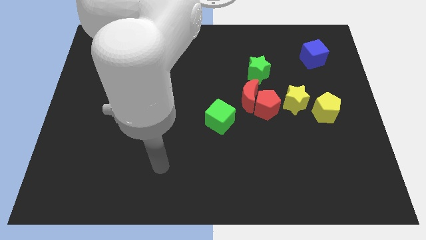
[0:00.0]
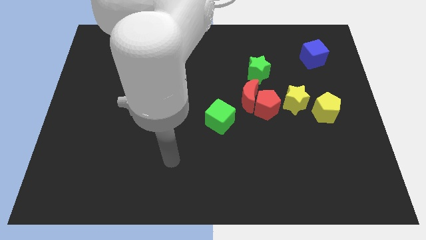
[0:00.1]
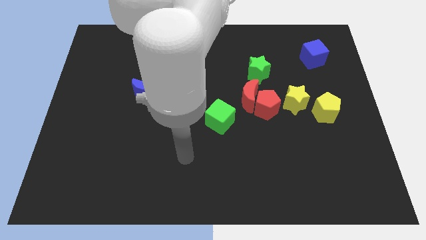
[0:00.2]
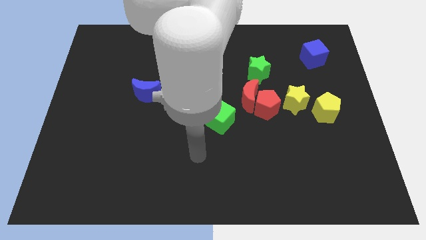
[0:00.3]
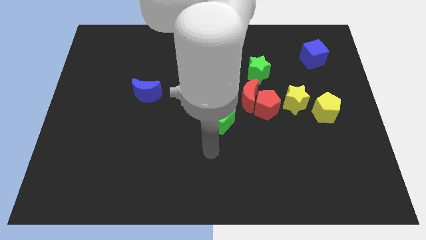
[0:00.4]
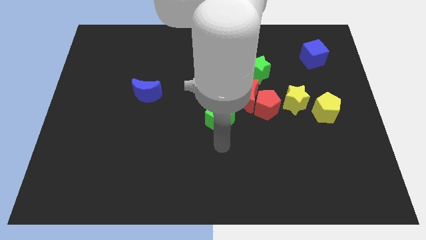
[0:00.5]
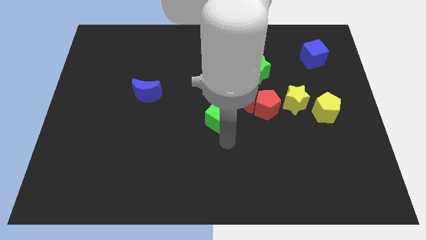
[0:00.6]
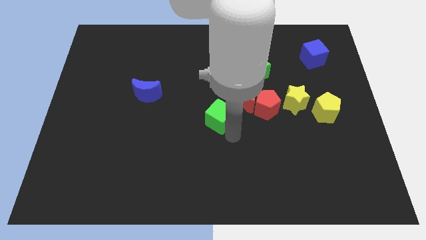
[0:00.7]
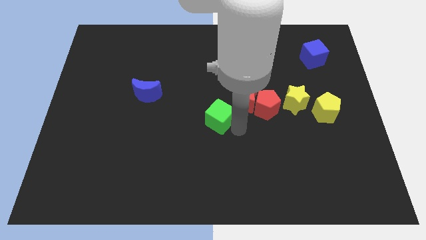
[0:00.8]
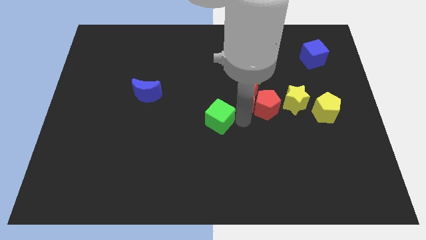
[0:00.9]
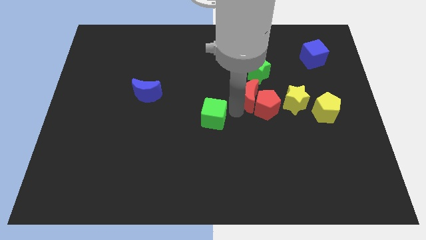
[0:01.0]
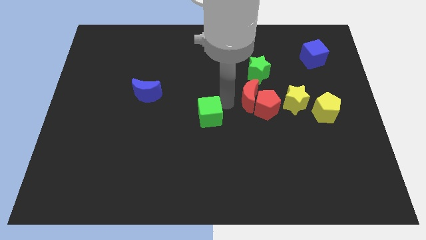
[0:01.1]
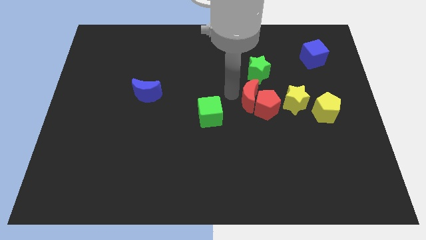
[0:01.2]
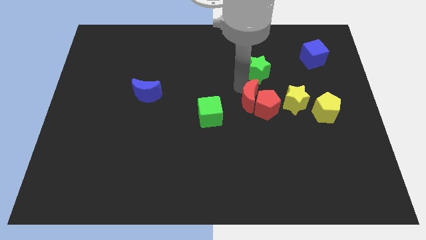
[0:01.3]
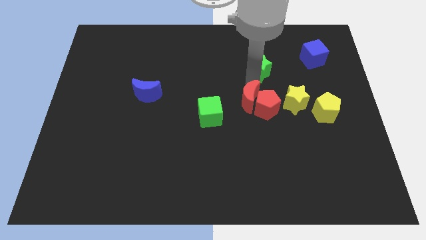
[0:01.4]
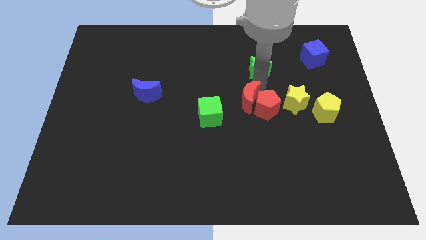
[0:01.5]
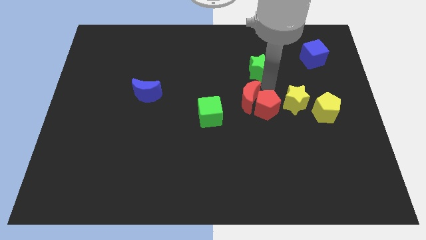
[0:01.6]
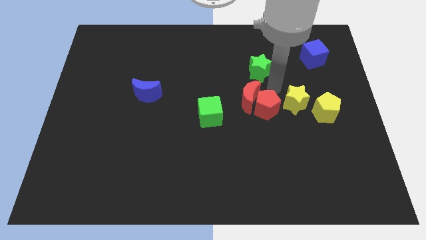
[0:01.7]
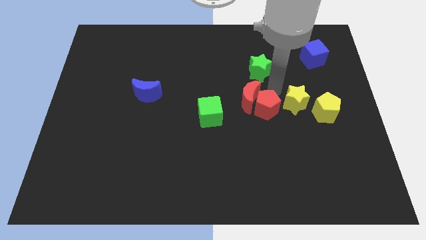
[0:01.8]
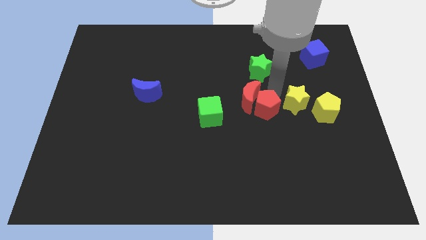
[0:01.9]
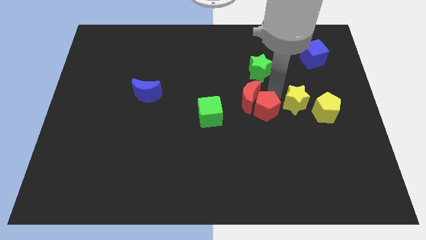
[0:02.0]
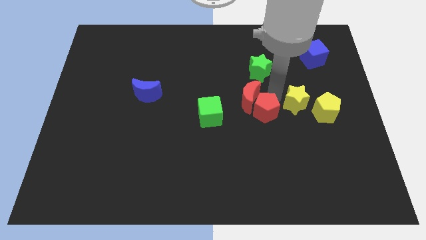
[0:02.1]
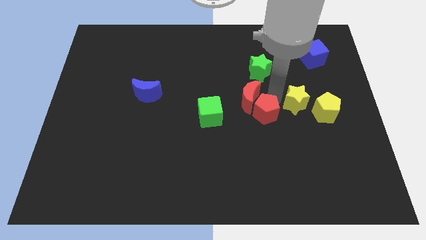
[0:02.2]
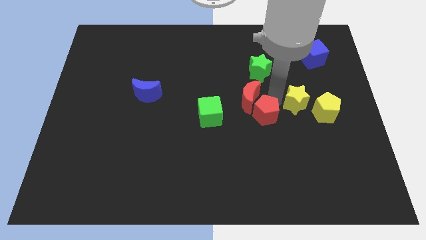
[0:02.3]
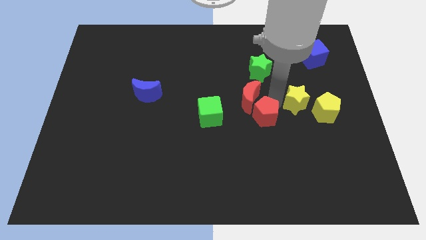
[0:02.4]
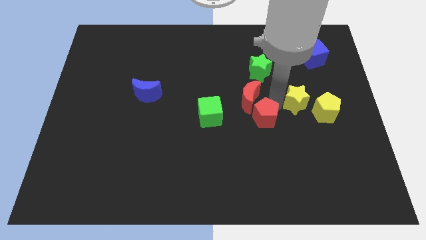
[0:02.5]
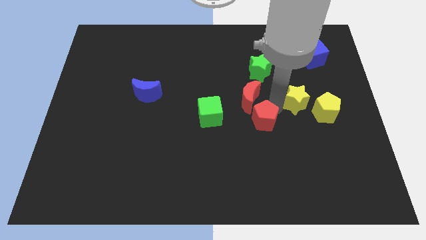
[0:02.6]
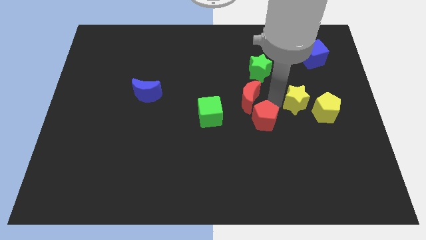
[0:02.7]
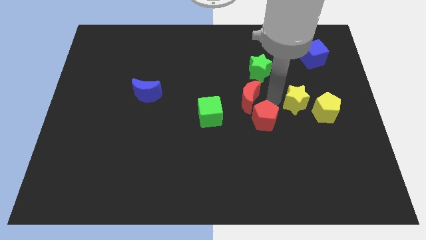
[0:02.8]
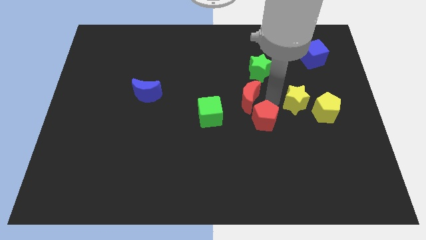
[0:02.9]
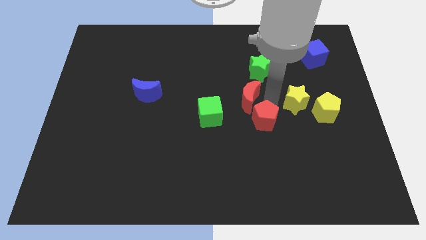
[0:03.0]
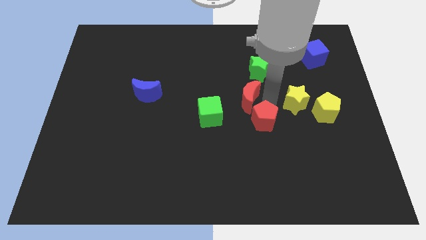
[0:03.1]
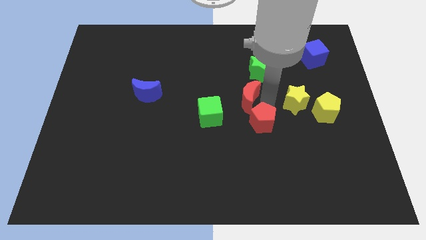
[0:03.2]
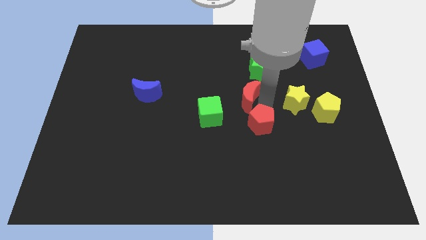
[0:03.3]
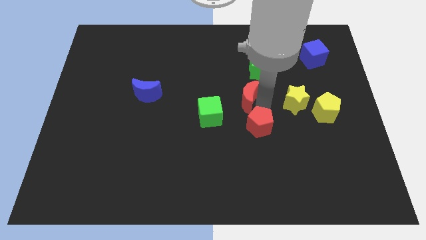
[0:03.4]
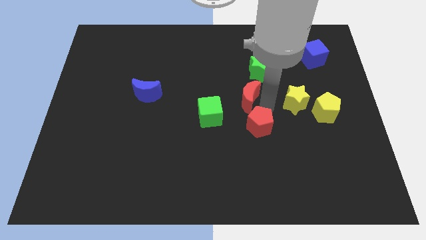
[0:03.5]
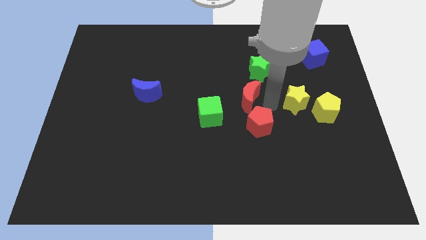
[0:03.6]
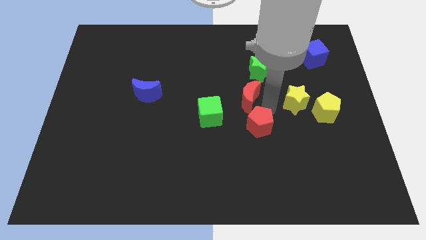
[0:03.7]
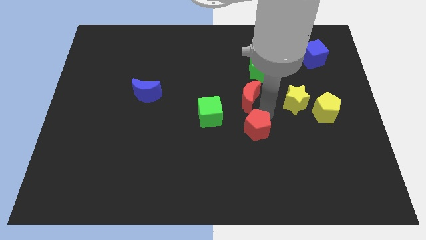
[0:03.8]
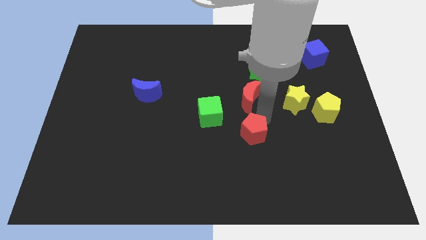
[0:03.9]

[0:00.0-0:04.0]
move the red pentagon away from the red moon and yellow star

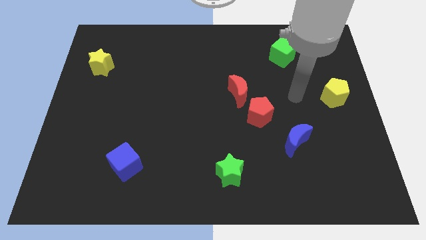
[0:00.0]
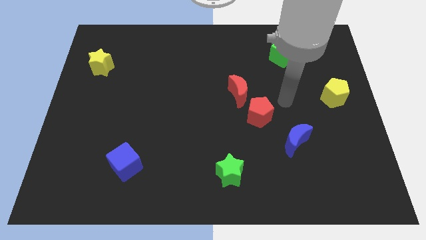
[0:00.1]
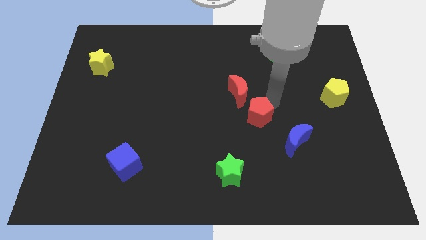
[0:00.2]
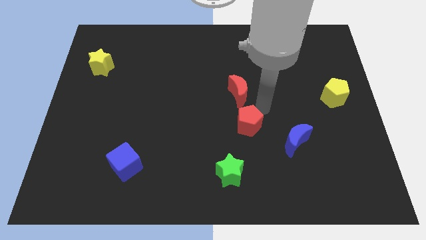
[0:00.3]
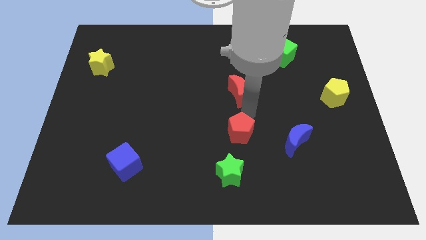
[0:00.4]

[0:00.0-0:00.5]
move the red moon away from the red pentagon

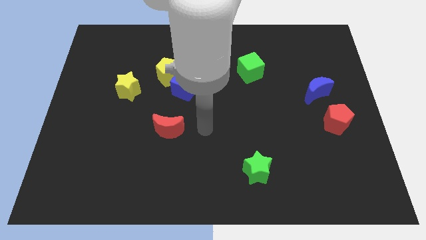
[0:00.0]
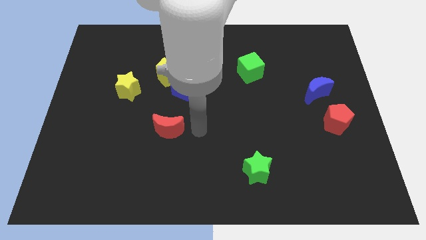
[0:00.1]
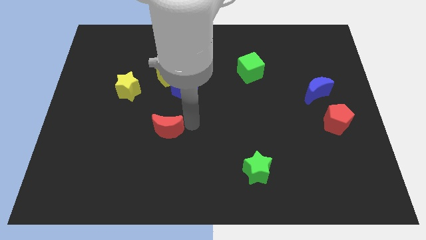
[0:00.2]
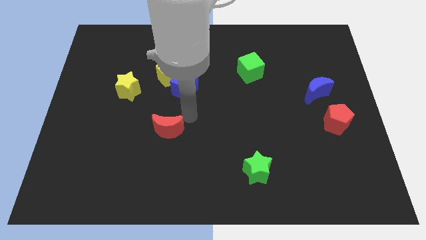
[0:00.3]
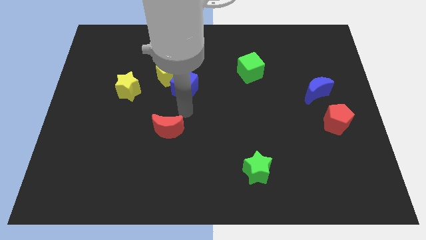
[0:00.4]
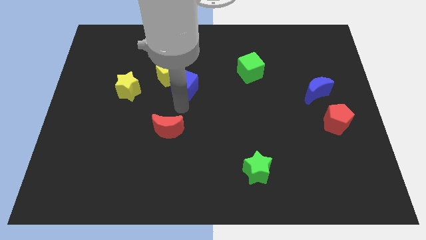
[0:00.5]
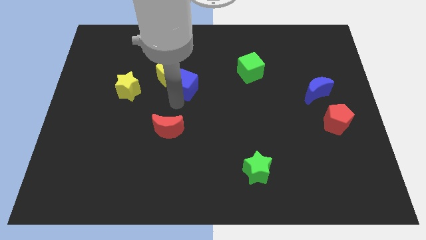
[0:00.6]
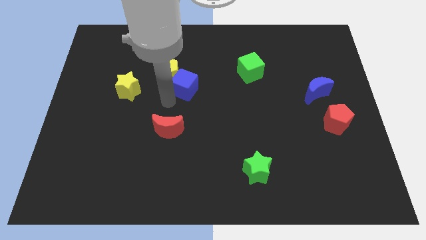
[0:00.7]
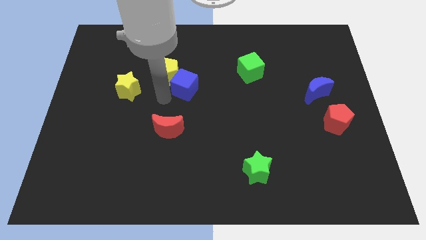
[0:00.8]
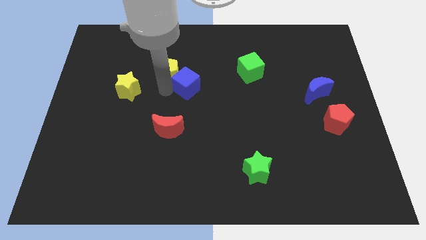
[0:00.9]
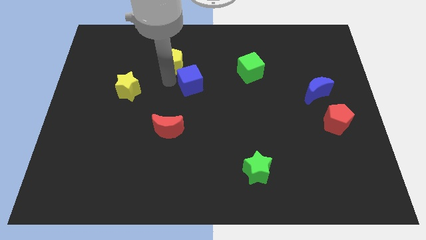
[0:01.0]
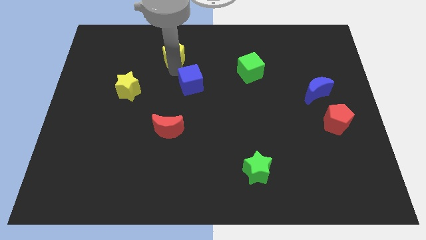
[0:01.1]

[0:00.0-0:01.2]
move the blue cube away from the yellow pentagon

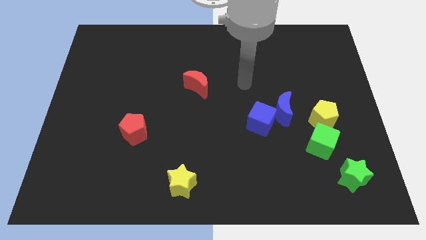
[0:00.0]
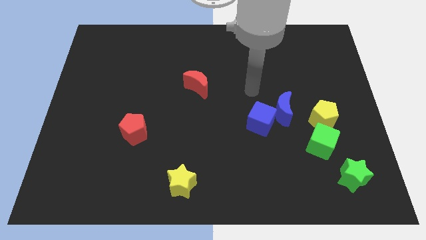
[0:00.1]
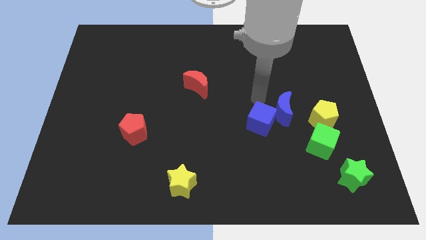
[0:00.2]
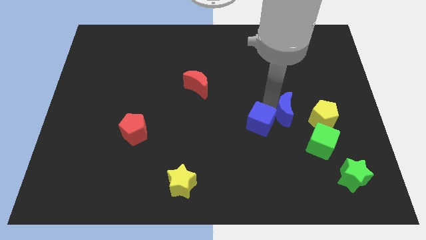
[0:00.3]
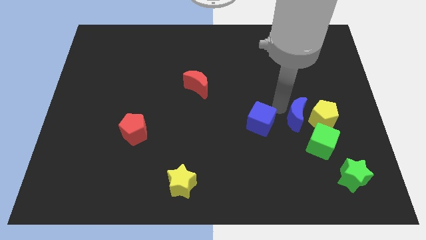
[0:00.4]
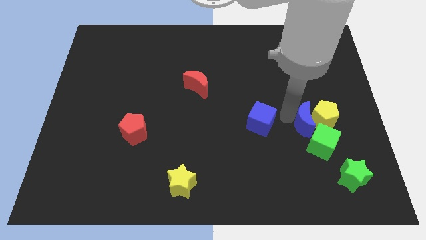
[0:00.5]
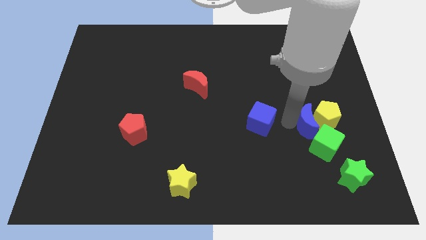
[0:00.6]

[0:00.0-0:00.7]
pull the blue cube apart from the blue moon

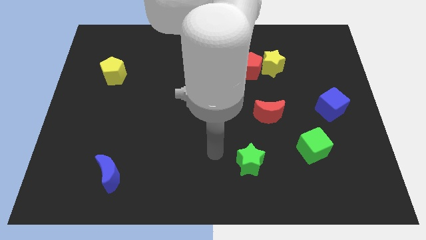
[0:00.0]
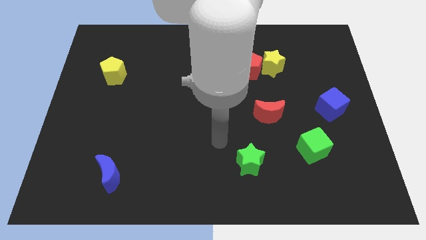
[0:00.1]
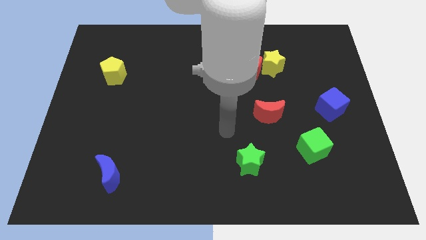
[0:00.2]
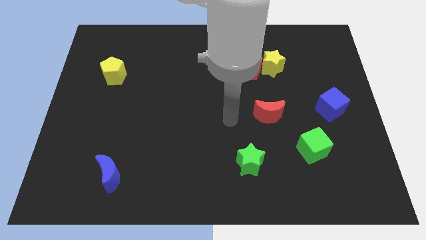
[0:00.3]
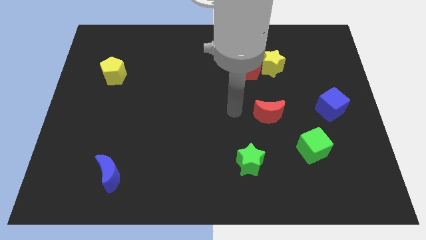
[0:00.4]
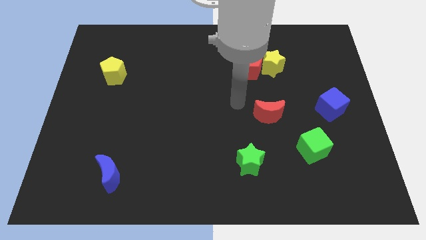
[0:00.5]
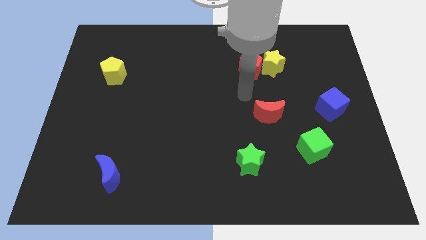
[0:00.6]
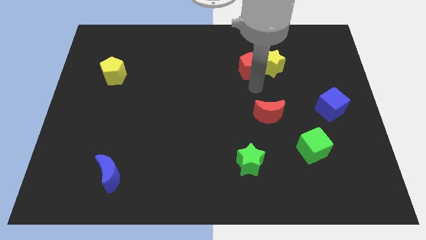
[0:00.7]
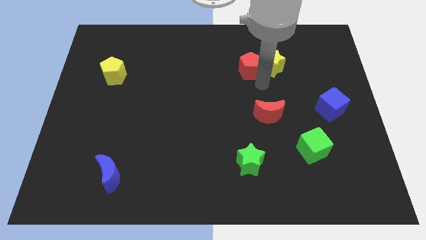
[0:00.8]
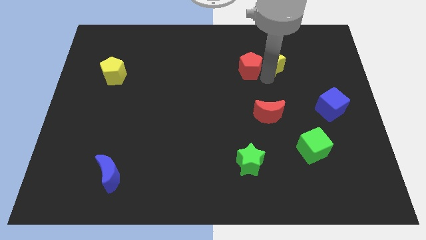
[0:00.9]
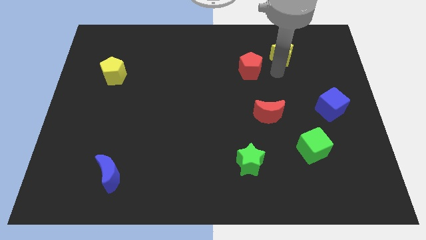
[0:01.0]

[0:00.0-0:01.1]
pull the red pentagon apart from the yellow star

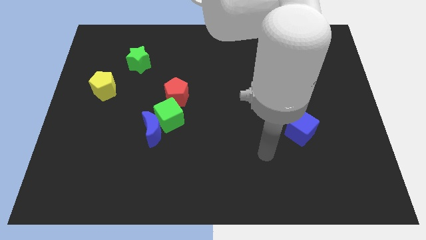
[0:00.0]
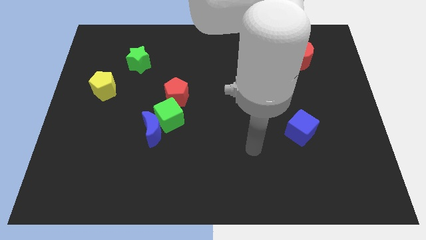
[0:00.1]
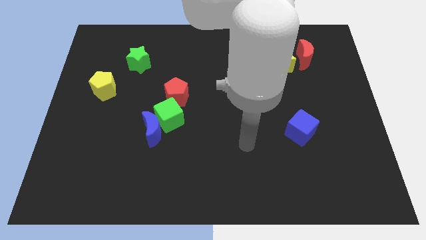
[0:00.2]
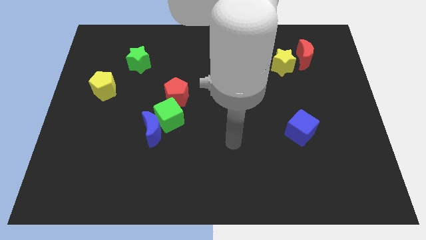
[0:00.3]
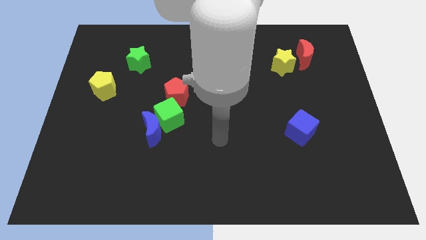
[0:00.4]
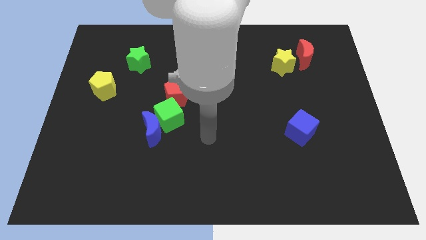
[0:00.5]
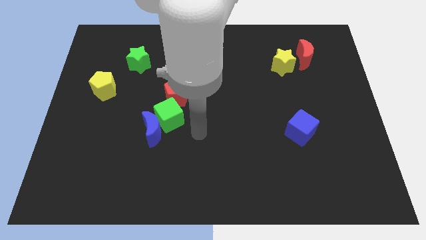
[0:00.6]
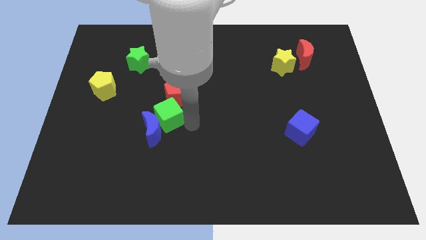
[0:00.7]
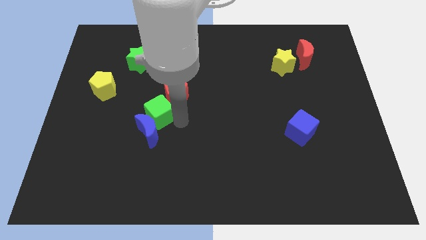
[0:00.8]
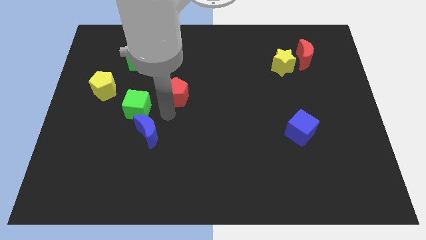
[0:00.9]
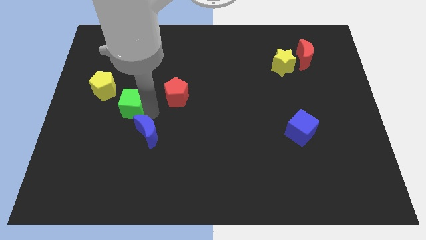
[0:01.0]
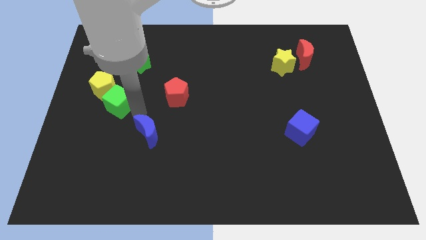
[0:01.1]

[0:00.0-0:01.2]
pull the blue moon apart from the green cube

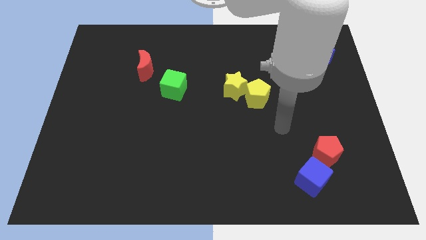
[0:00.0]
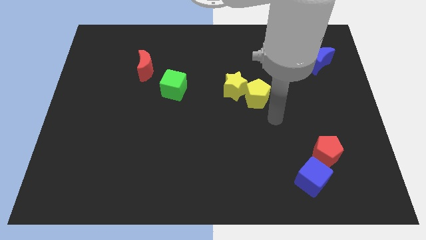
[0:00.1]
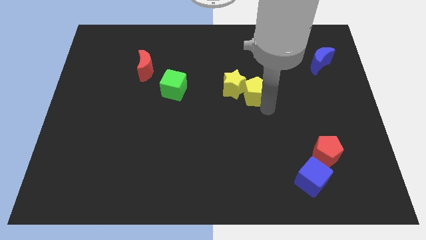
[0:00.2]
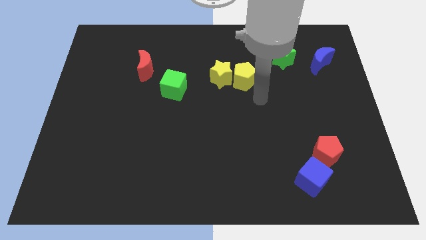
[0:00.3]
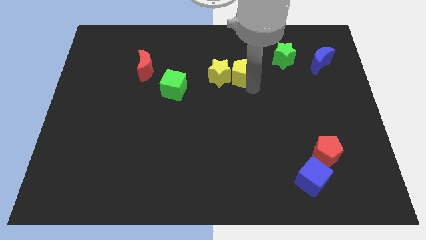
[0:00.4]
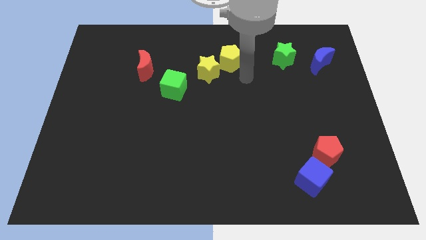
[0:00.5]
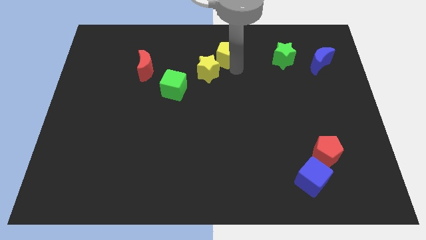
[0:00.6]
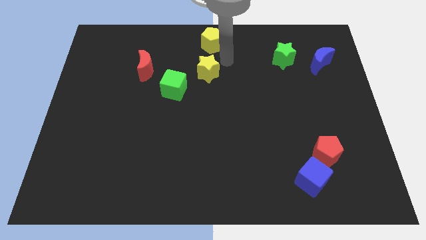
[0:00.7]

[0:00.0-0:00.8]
move the yellow star away from the yellow pentagon
